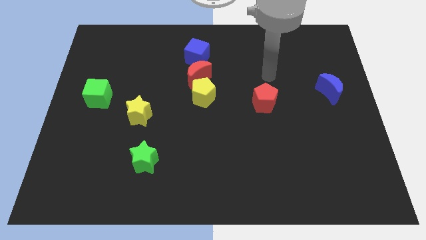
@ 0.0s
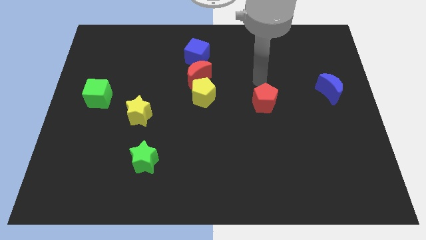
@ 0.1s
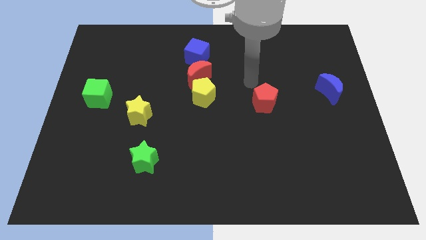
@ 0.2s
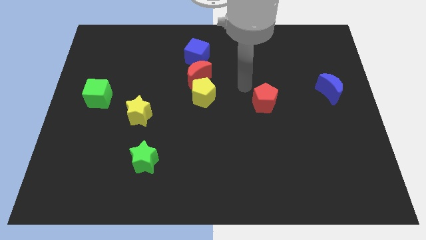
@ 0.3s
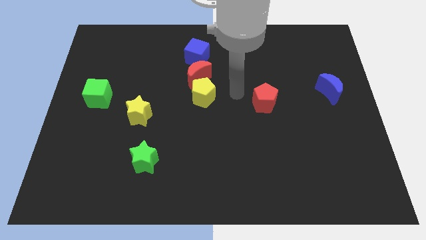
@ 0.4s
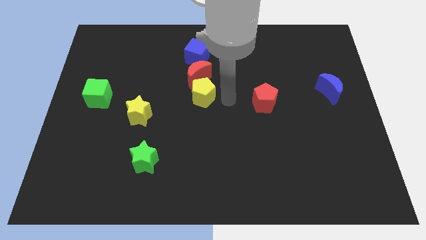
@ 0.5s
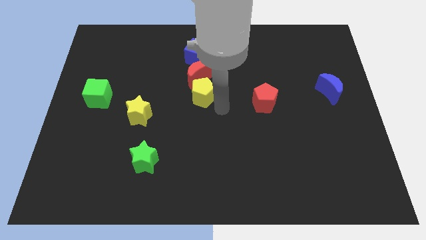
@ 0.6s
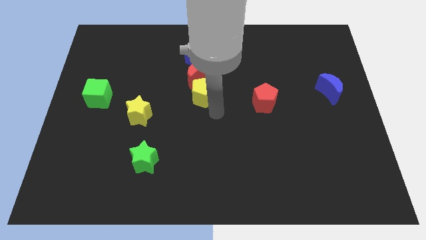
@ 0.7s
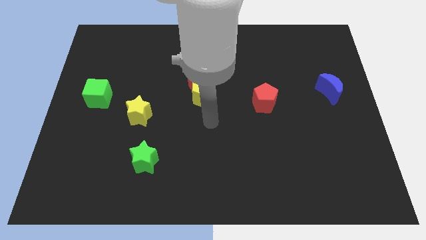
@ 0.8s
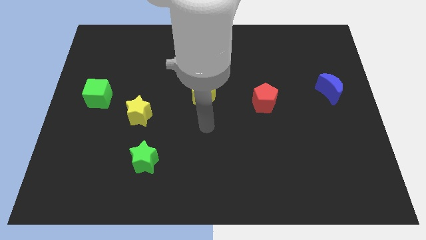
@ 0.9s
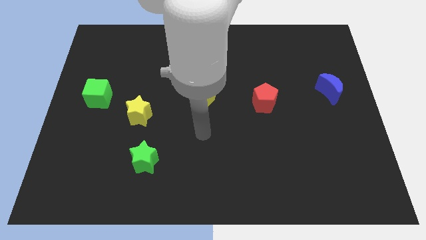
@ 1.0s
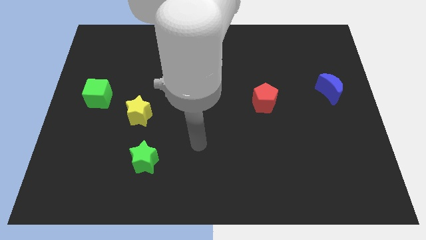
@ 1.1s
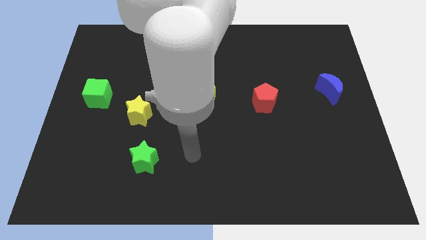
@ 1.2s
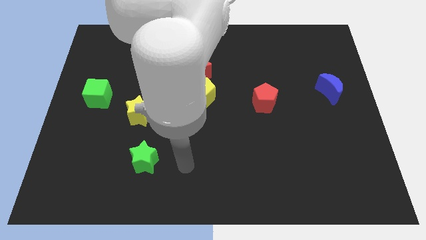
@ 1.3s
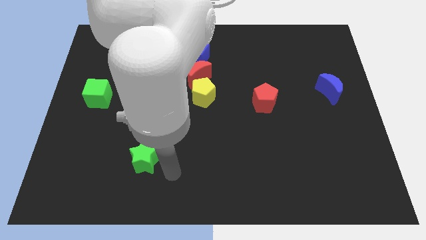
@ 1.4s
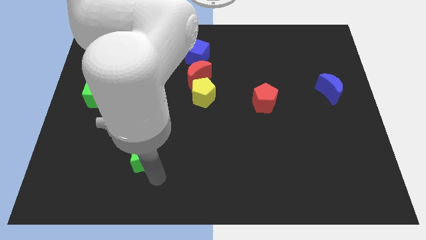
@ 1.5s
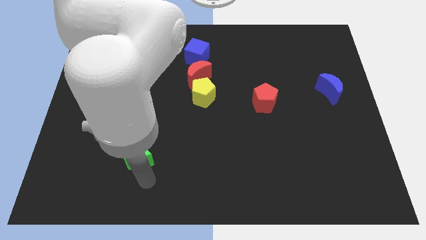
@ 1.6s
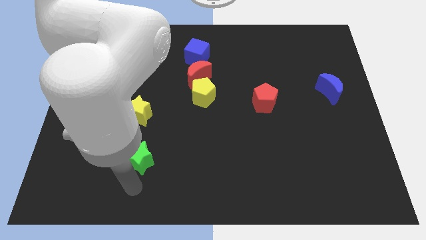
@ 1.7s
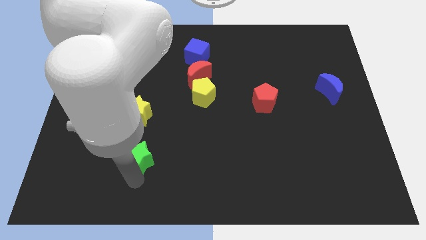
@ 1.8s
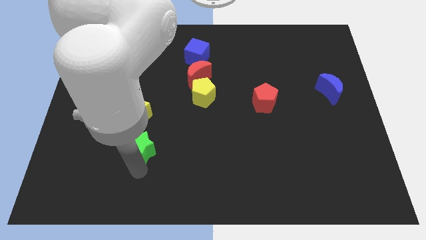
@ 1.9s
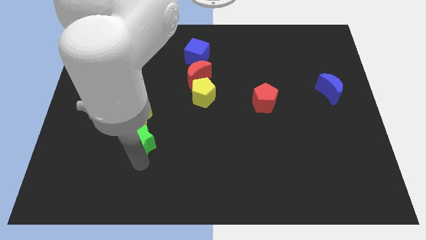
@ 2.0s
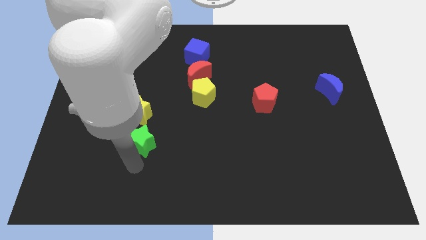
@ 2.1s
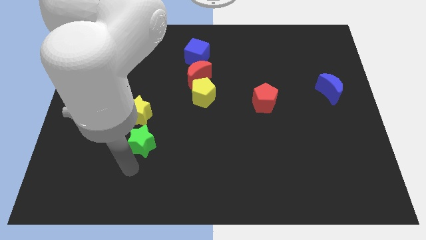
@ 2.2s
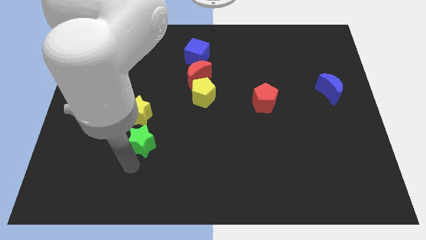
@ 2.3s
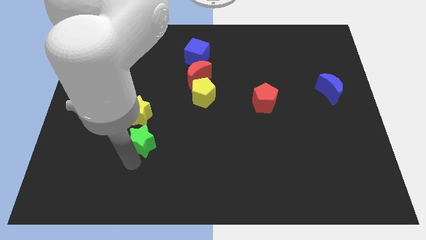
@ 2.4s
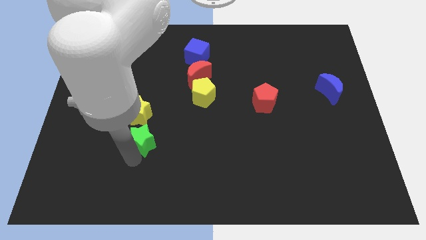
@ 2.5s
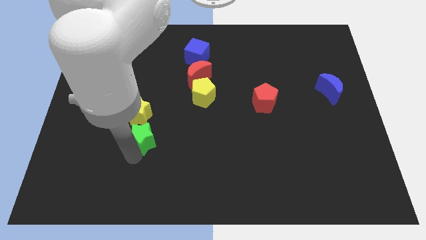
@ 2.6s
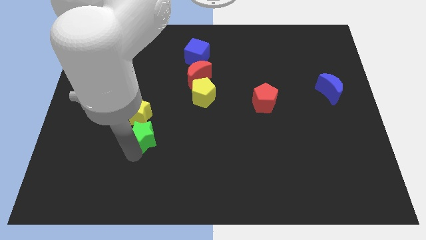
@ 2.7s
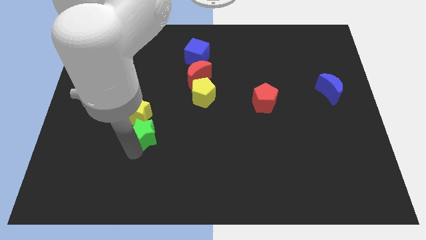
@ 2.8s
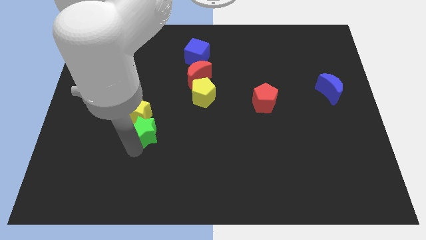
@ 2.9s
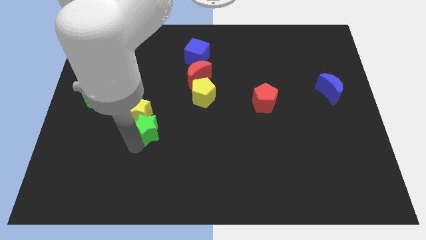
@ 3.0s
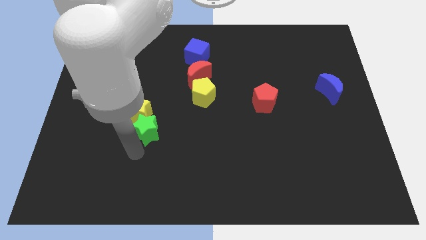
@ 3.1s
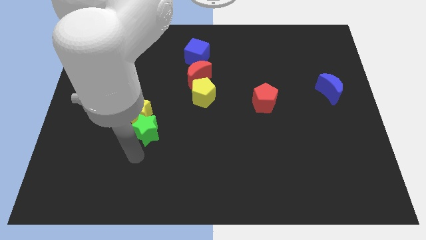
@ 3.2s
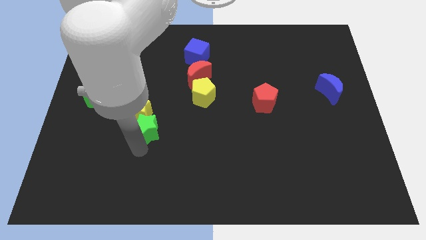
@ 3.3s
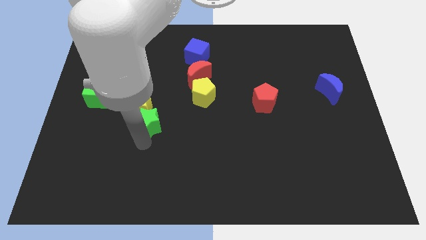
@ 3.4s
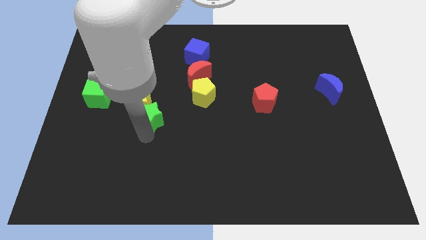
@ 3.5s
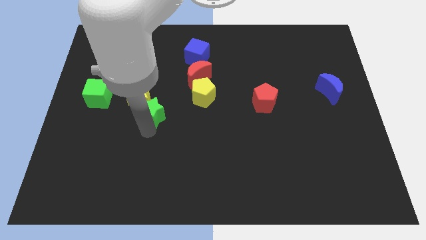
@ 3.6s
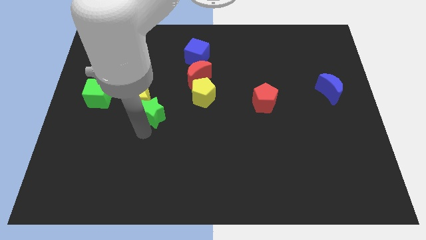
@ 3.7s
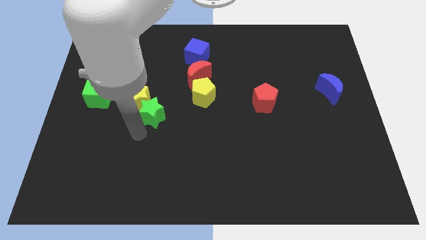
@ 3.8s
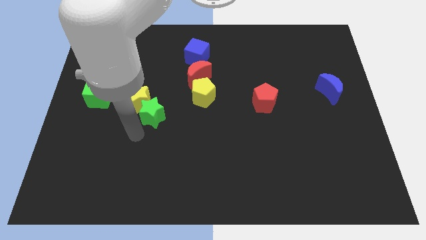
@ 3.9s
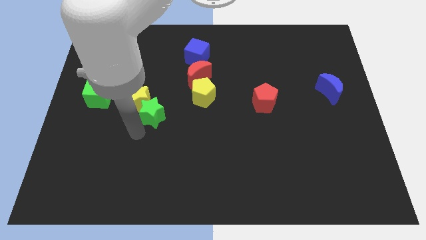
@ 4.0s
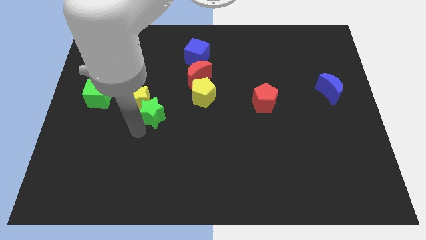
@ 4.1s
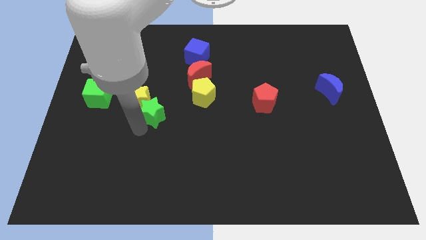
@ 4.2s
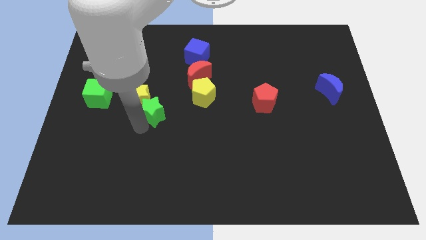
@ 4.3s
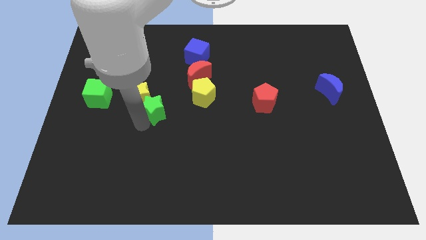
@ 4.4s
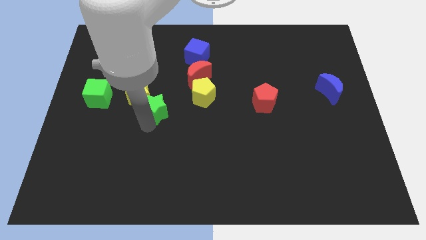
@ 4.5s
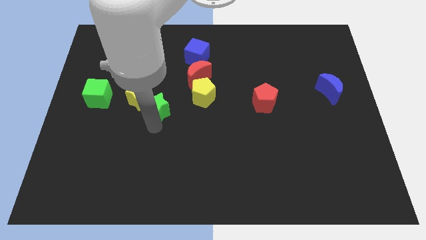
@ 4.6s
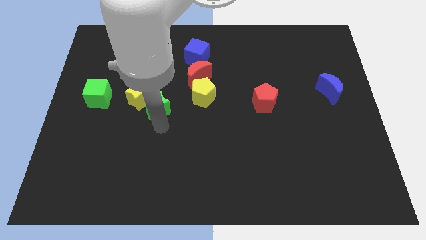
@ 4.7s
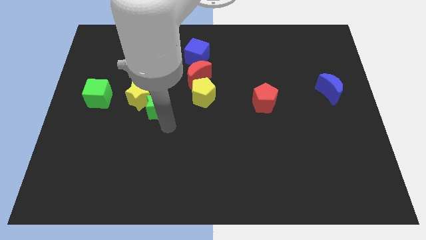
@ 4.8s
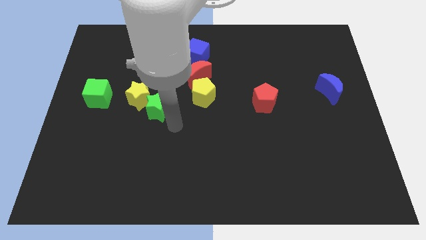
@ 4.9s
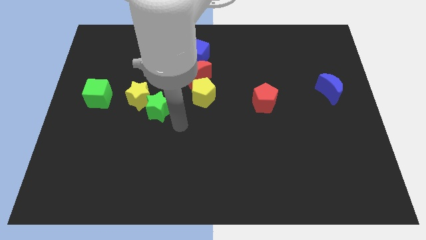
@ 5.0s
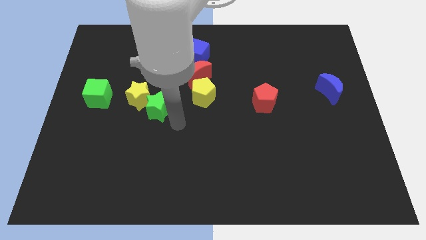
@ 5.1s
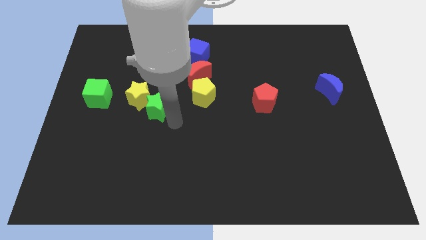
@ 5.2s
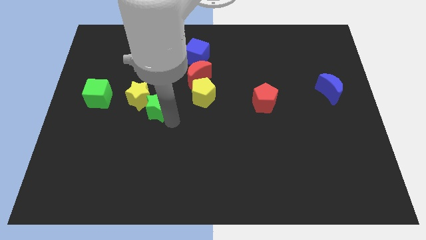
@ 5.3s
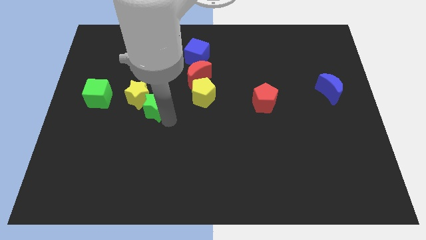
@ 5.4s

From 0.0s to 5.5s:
put the green star to the right of the green cube

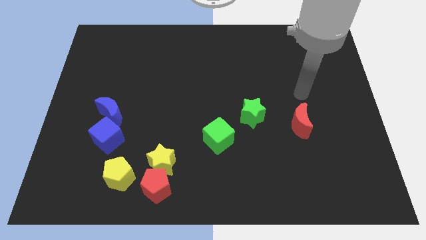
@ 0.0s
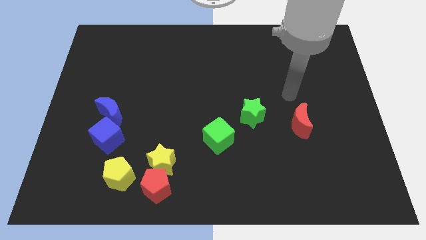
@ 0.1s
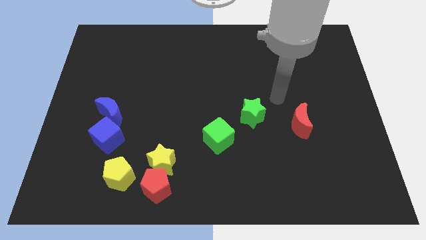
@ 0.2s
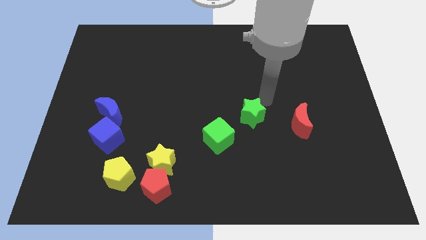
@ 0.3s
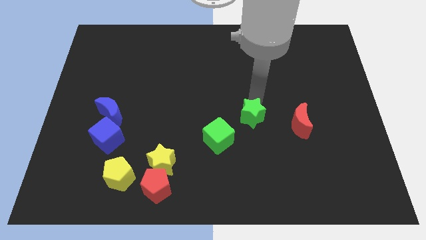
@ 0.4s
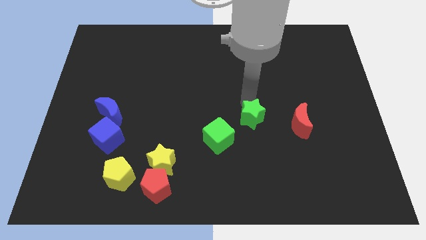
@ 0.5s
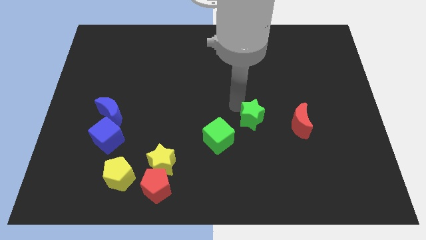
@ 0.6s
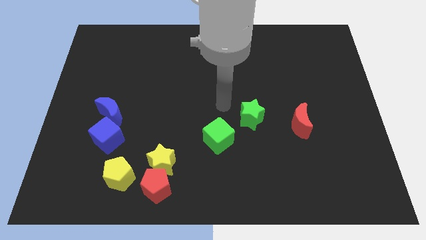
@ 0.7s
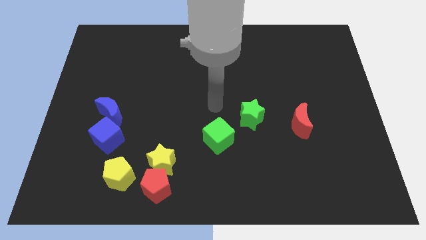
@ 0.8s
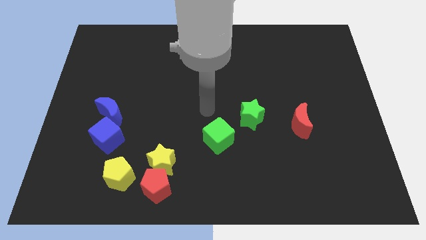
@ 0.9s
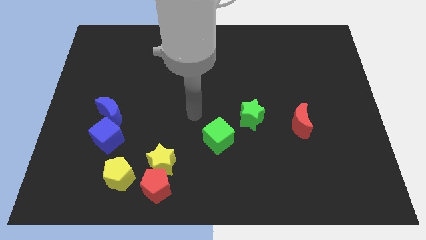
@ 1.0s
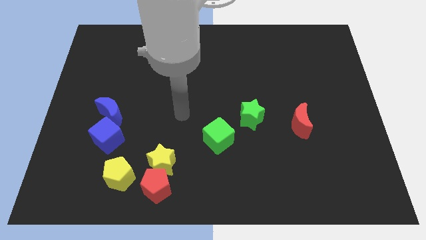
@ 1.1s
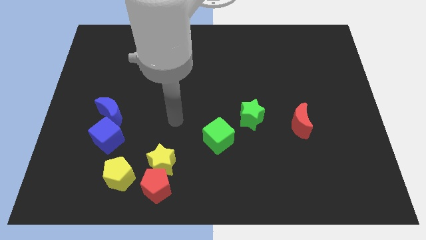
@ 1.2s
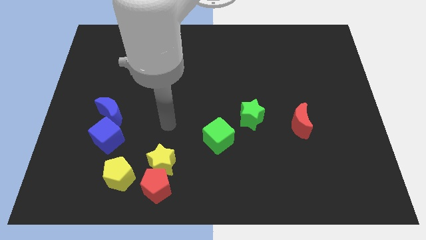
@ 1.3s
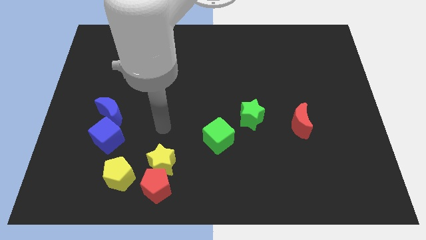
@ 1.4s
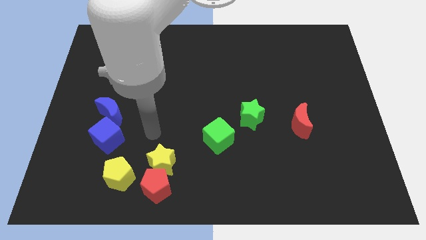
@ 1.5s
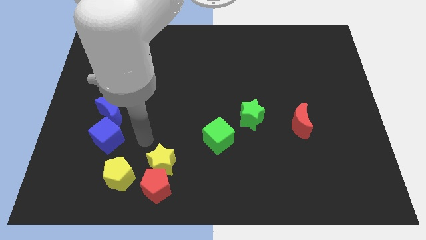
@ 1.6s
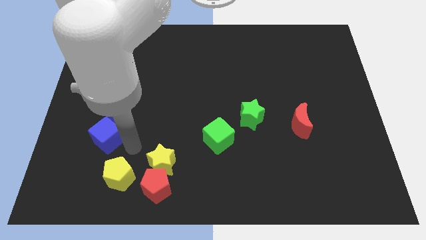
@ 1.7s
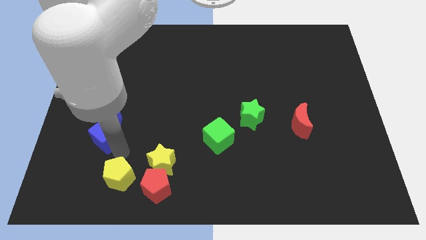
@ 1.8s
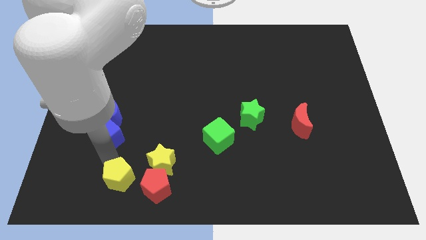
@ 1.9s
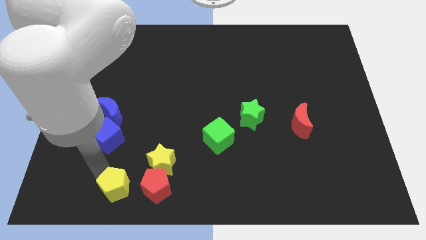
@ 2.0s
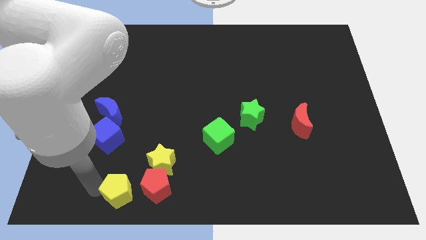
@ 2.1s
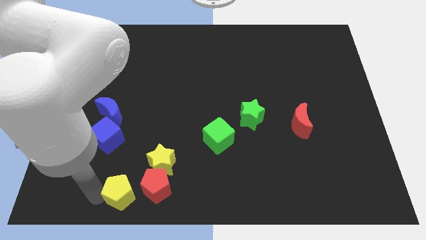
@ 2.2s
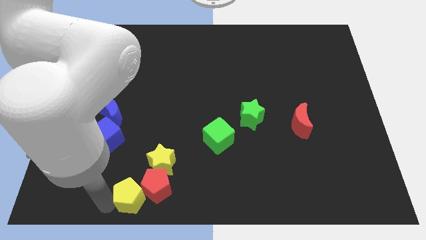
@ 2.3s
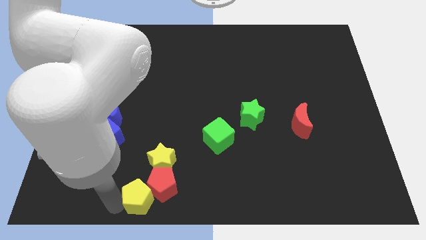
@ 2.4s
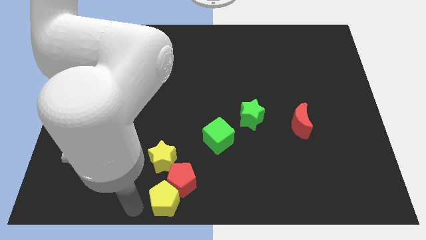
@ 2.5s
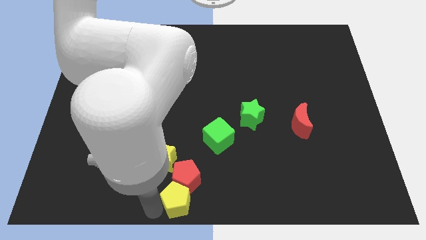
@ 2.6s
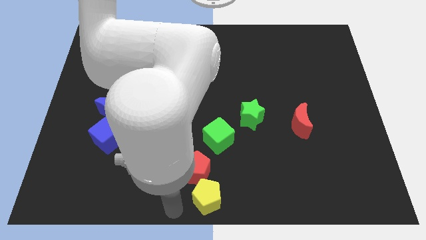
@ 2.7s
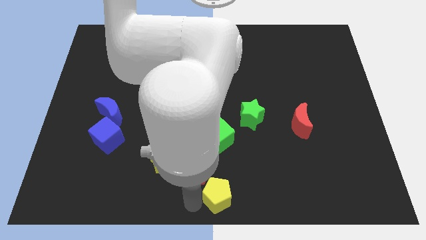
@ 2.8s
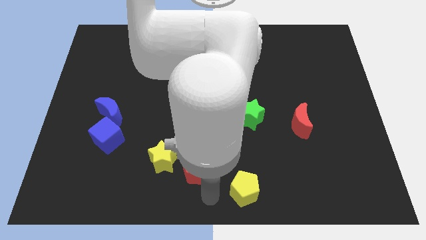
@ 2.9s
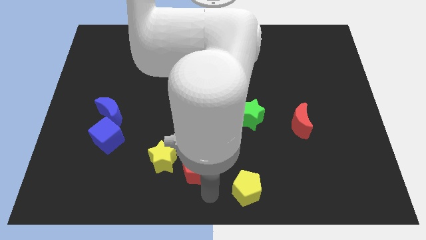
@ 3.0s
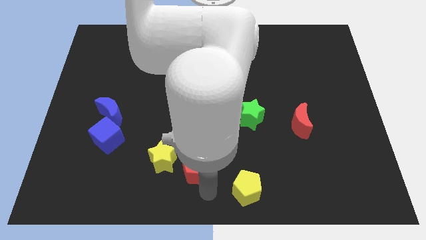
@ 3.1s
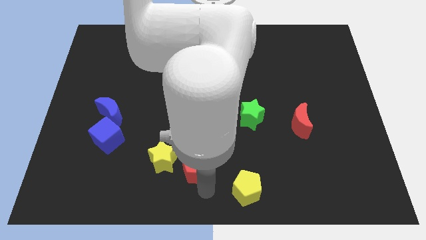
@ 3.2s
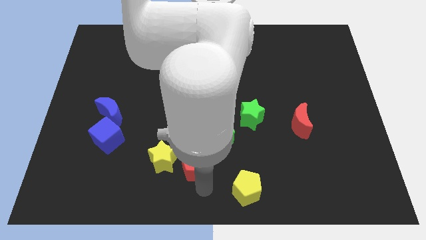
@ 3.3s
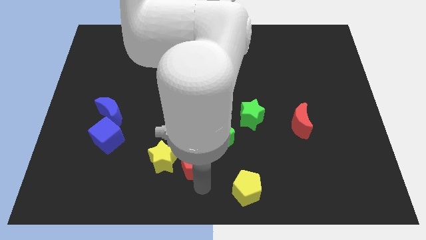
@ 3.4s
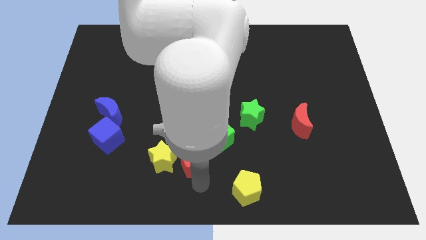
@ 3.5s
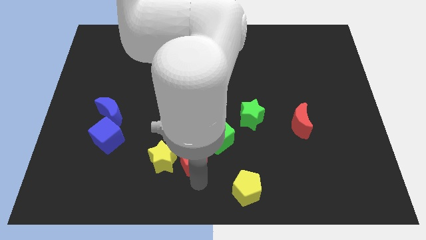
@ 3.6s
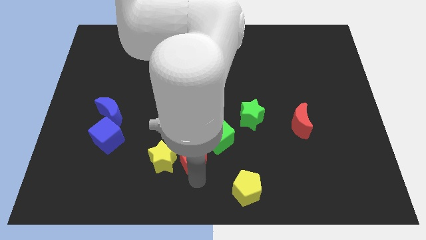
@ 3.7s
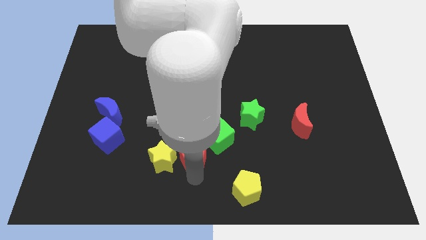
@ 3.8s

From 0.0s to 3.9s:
put the red pentagon to the left side of the green cube
